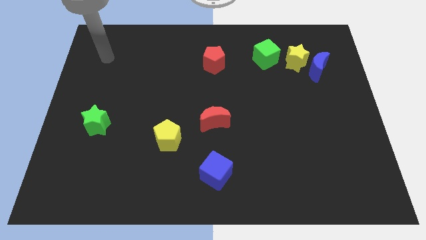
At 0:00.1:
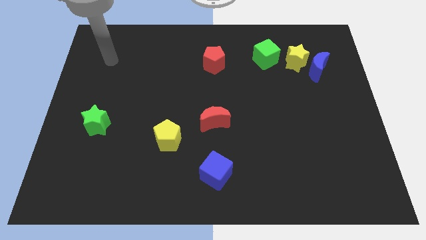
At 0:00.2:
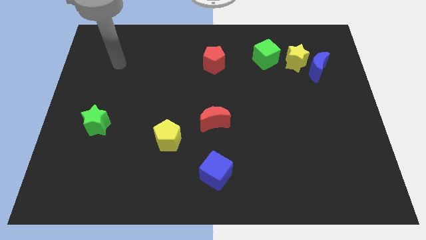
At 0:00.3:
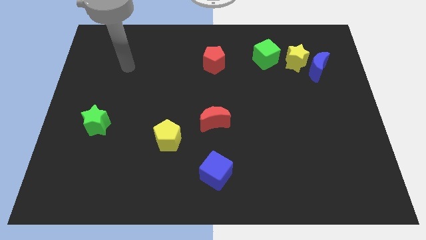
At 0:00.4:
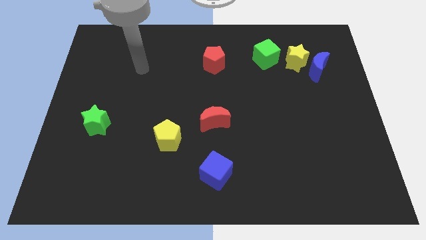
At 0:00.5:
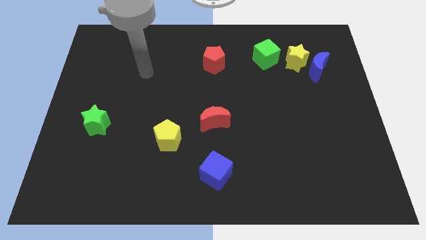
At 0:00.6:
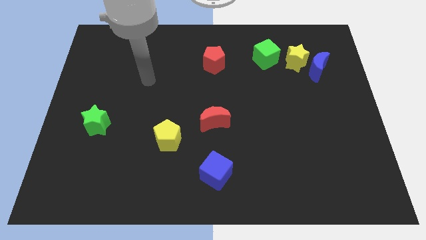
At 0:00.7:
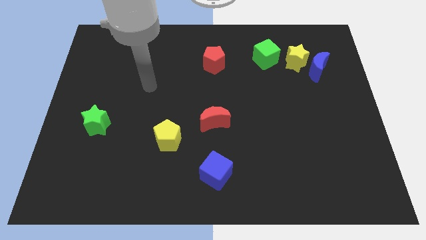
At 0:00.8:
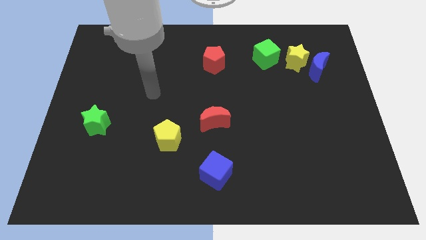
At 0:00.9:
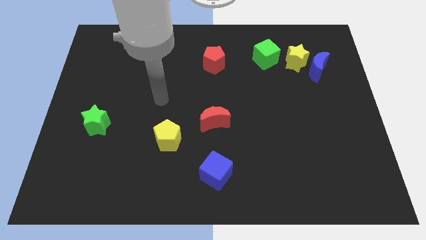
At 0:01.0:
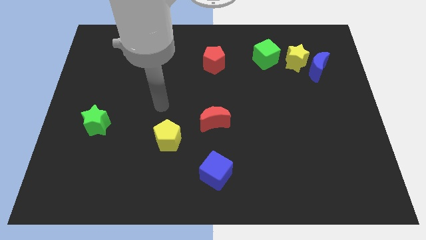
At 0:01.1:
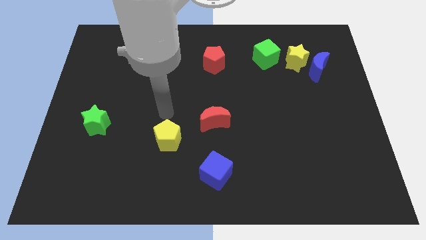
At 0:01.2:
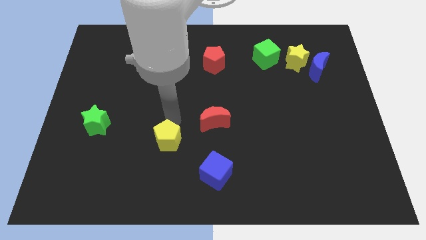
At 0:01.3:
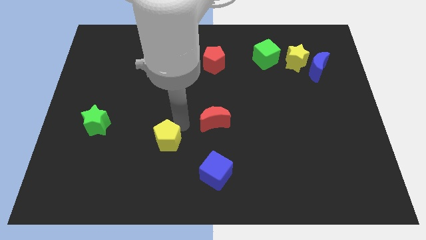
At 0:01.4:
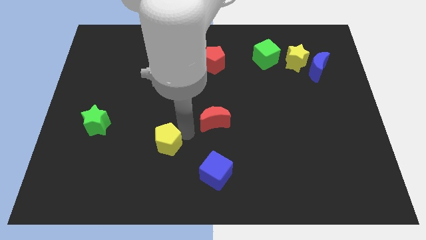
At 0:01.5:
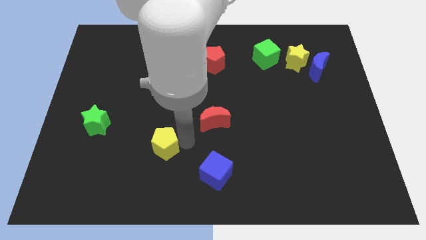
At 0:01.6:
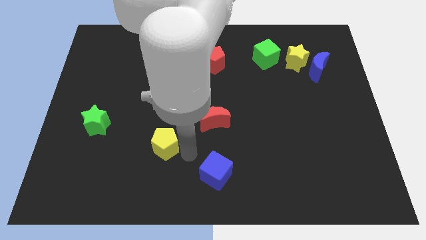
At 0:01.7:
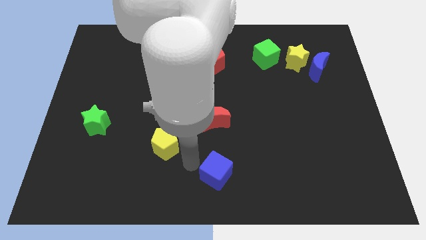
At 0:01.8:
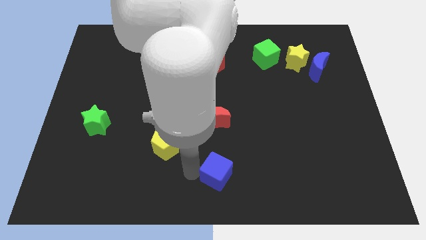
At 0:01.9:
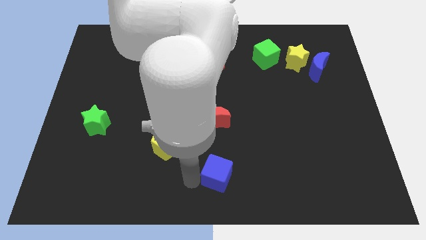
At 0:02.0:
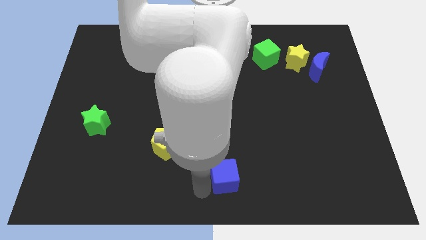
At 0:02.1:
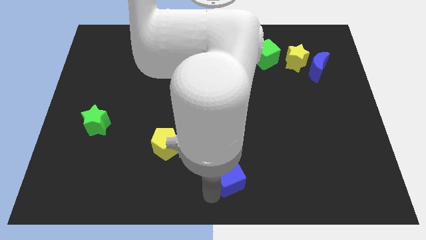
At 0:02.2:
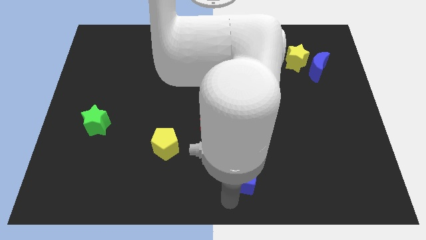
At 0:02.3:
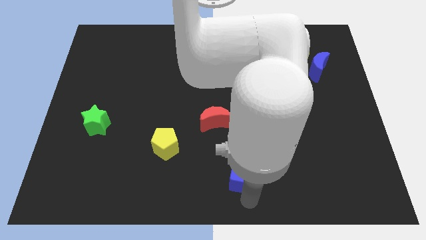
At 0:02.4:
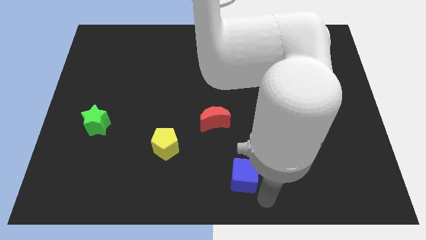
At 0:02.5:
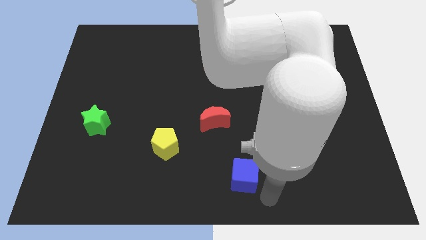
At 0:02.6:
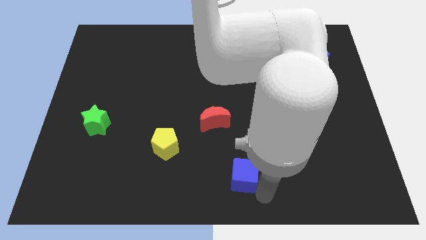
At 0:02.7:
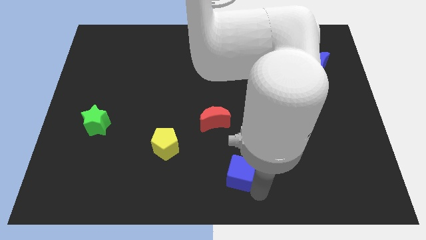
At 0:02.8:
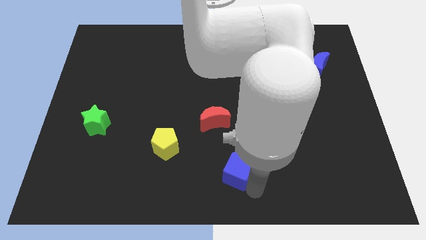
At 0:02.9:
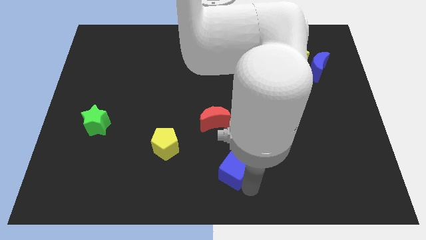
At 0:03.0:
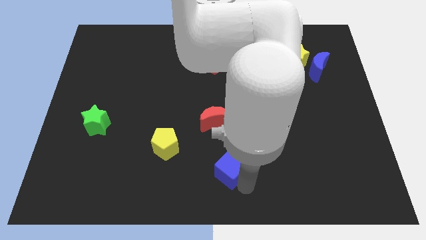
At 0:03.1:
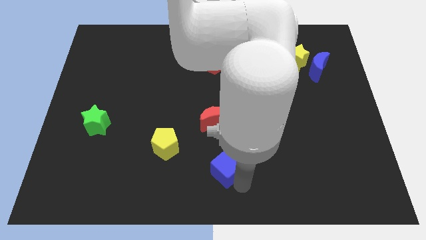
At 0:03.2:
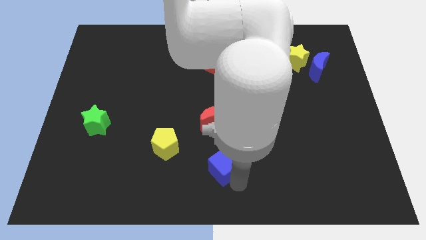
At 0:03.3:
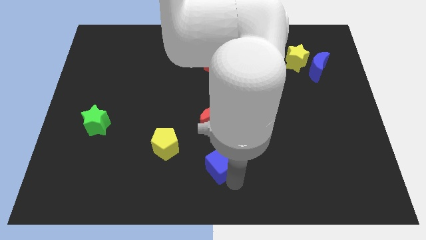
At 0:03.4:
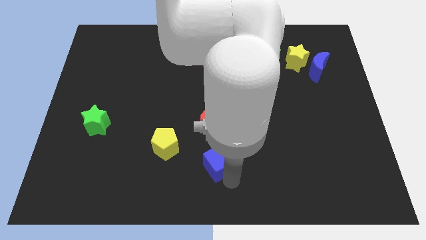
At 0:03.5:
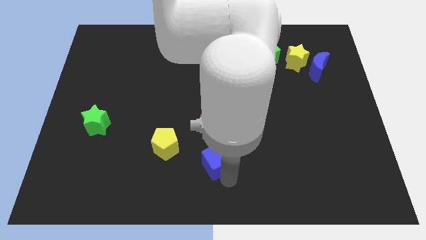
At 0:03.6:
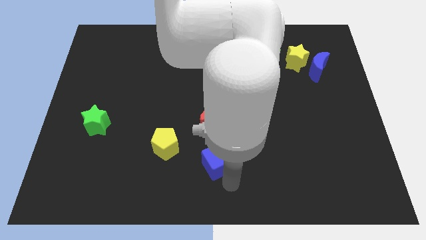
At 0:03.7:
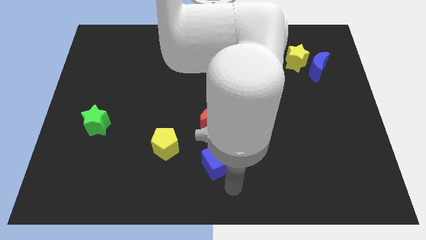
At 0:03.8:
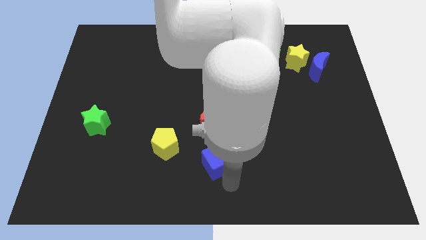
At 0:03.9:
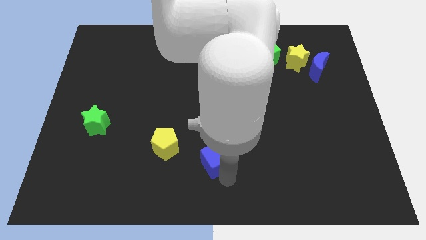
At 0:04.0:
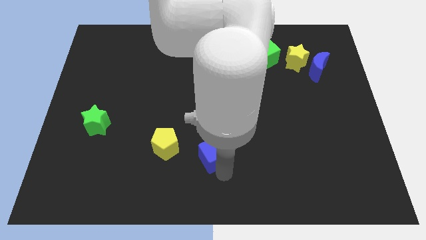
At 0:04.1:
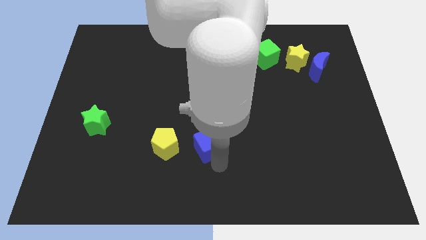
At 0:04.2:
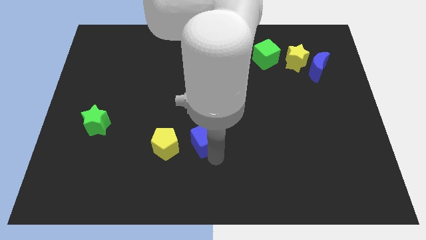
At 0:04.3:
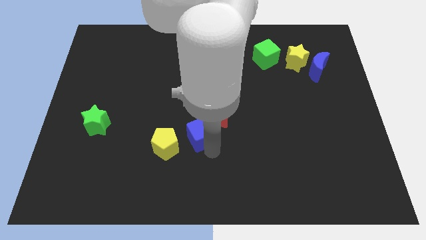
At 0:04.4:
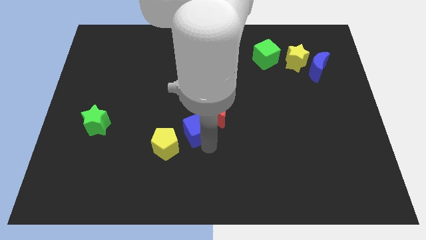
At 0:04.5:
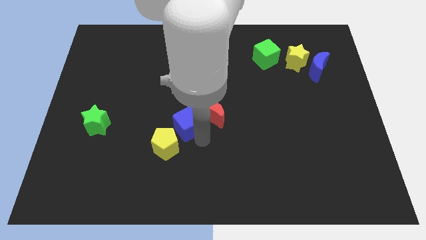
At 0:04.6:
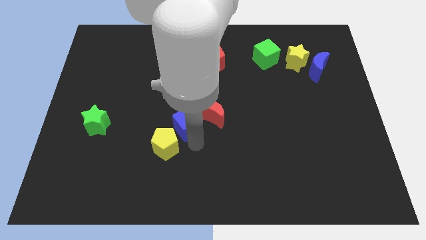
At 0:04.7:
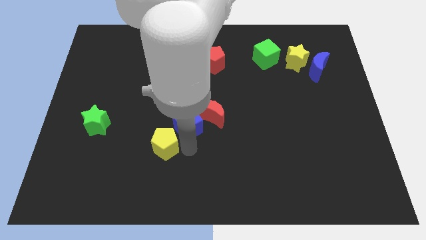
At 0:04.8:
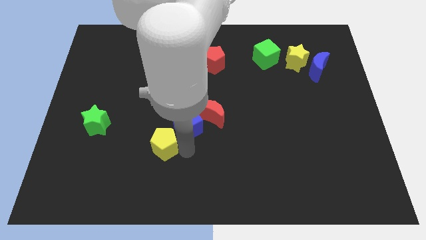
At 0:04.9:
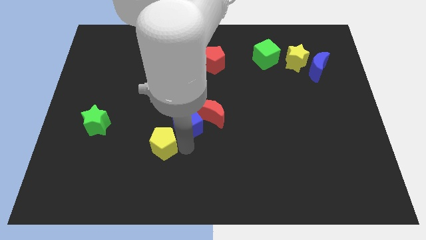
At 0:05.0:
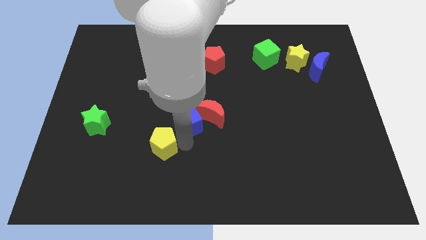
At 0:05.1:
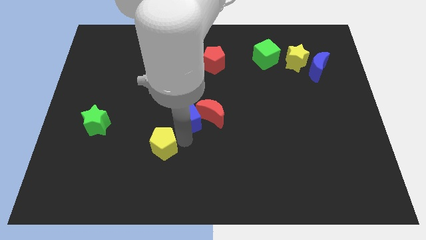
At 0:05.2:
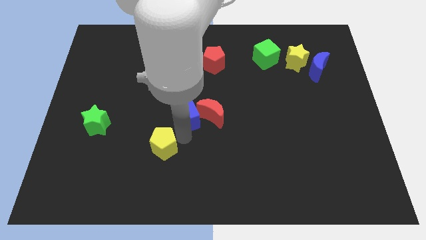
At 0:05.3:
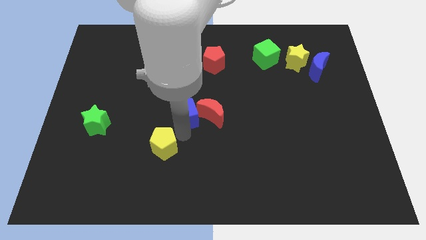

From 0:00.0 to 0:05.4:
push the blue cube diagonally up and to the left of the red moon

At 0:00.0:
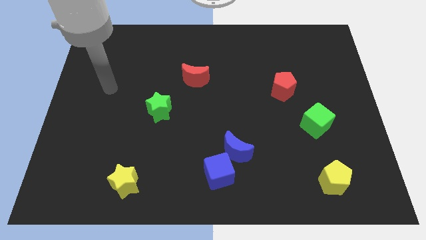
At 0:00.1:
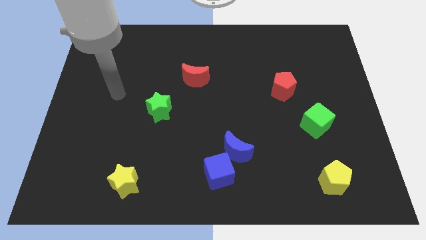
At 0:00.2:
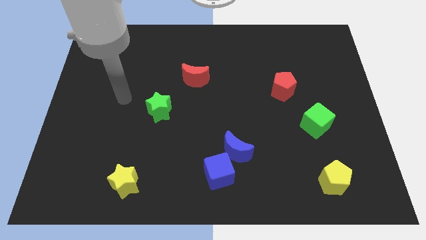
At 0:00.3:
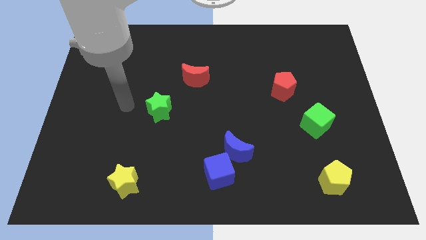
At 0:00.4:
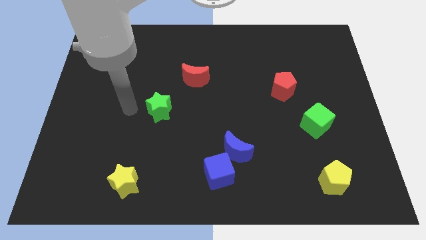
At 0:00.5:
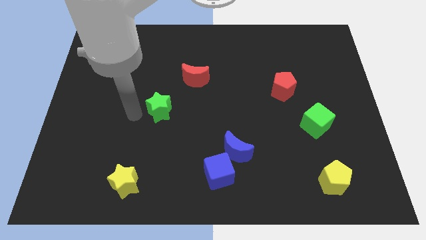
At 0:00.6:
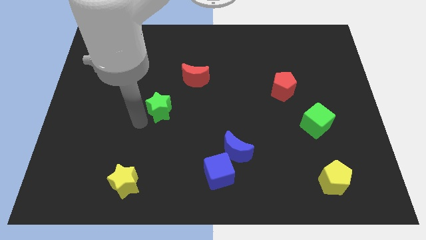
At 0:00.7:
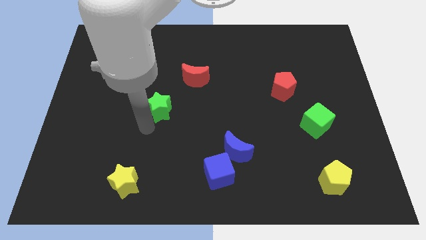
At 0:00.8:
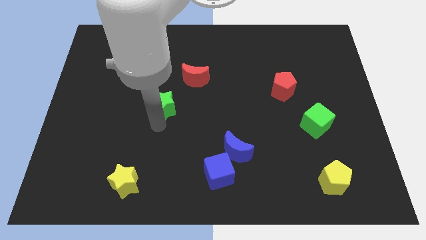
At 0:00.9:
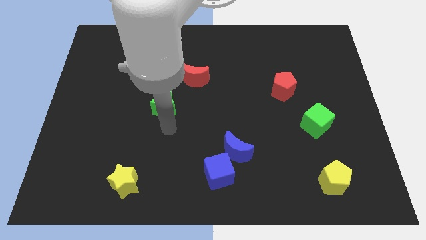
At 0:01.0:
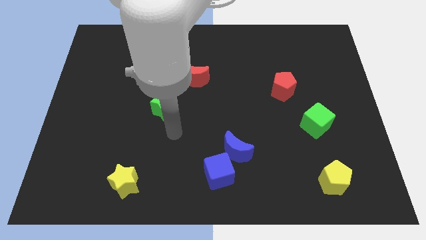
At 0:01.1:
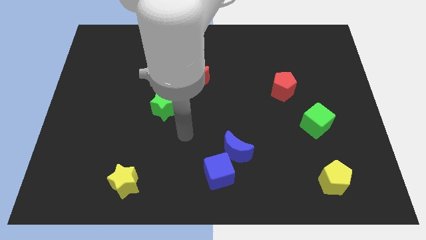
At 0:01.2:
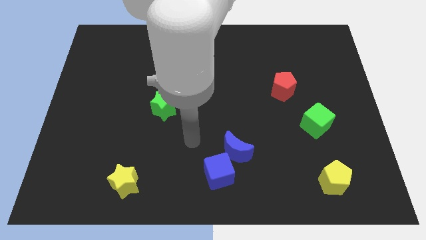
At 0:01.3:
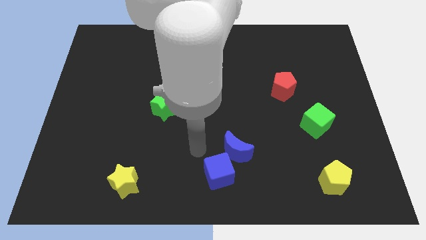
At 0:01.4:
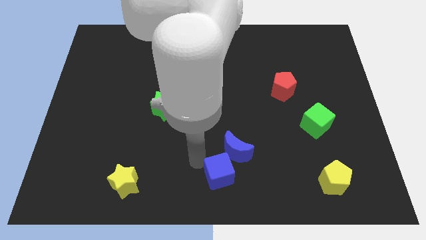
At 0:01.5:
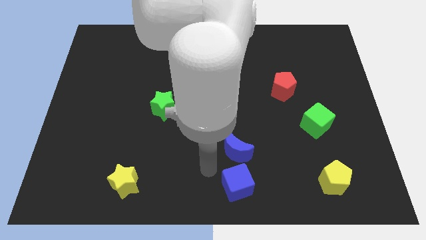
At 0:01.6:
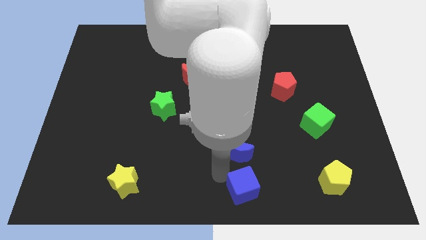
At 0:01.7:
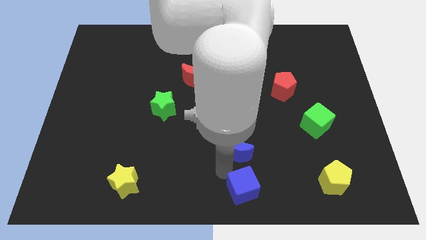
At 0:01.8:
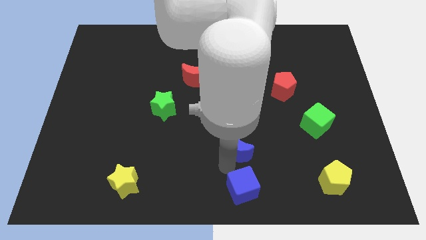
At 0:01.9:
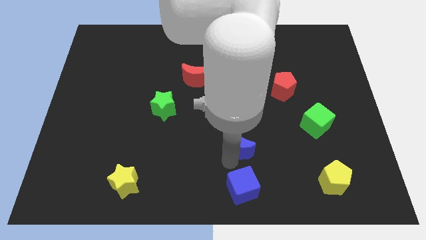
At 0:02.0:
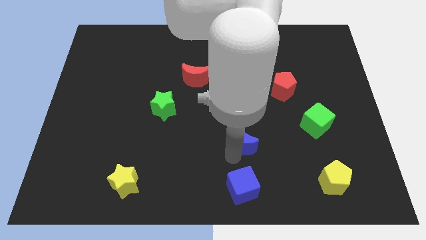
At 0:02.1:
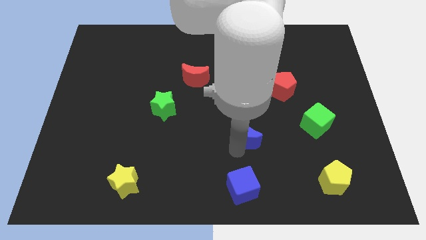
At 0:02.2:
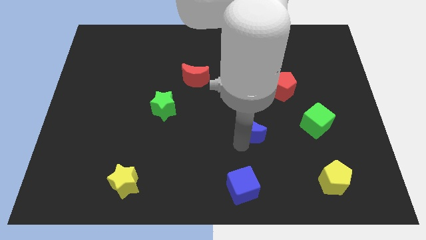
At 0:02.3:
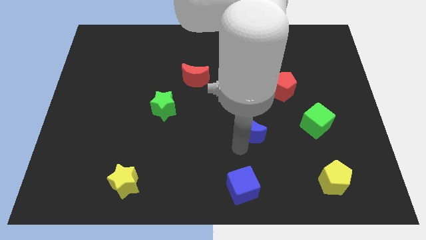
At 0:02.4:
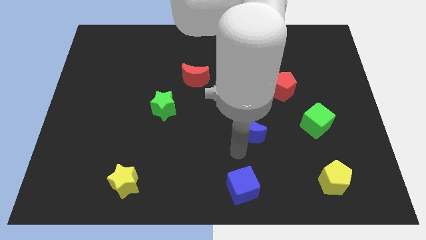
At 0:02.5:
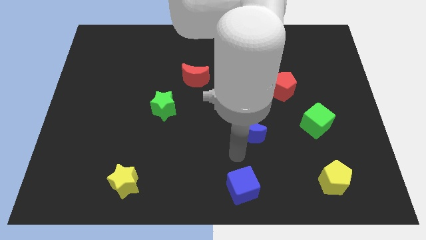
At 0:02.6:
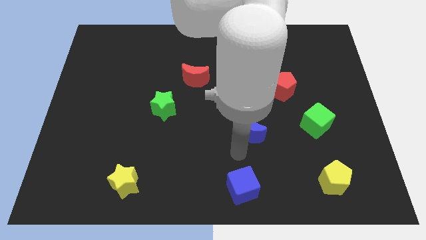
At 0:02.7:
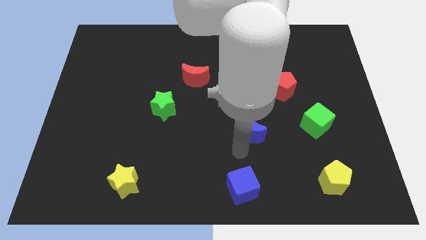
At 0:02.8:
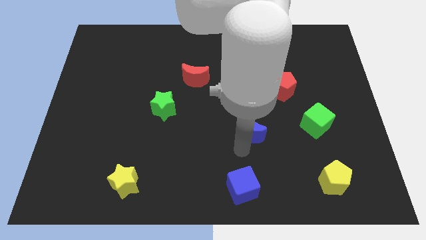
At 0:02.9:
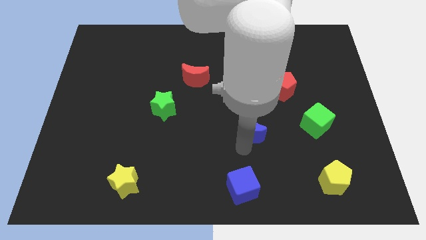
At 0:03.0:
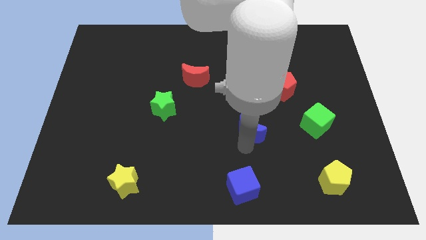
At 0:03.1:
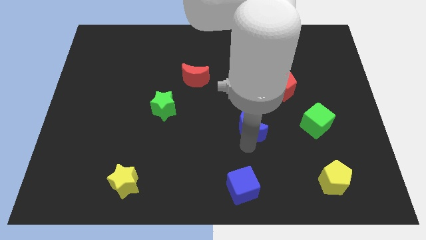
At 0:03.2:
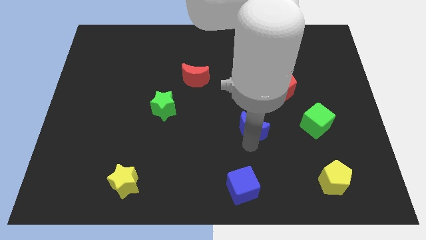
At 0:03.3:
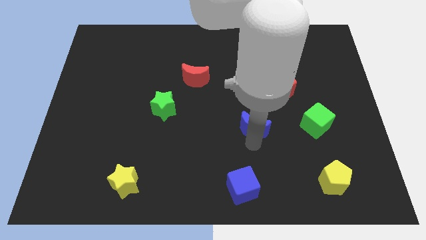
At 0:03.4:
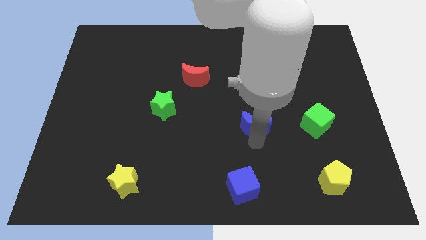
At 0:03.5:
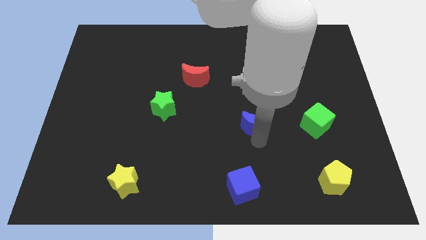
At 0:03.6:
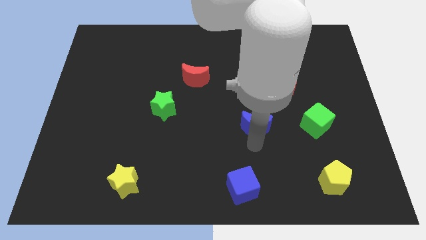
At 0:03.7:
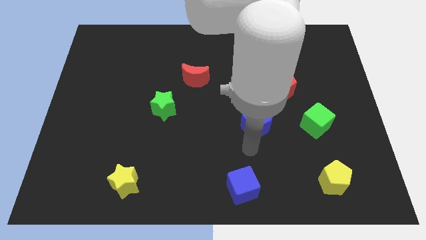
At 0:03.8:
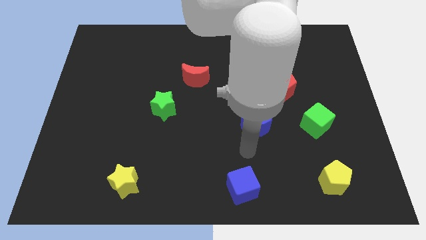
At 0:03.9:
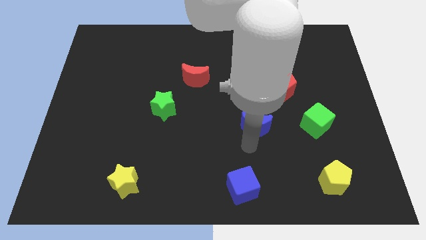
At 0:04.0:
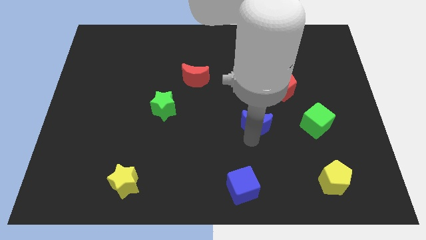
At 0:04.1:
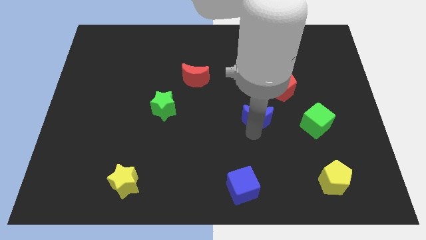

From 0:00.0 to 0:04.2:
put the blue moon diagonally down and to the left of the red pentagon
